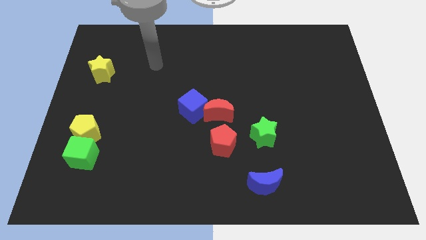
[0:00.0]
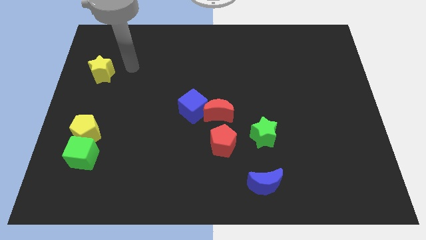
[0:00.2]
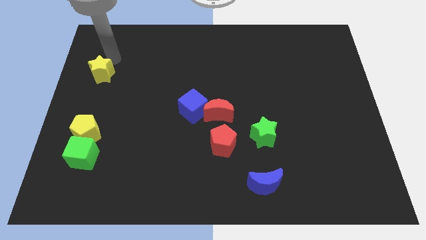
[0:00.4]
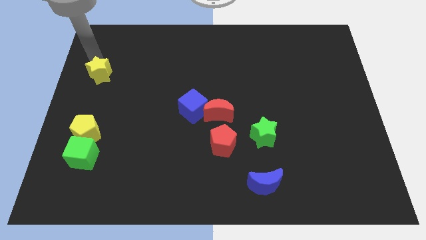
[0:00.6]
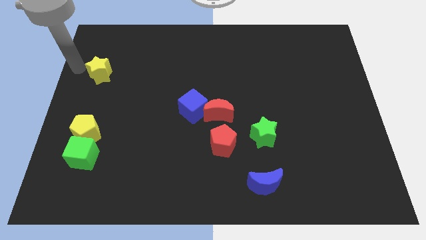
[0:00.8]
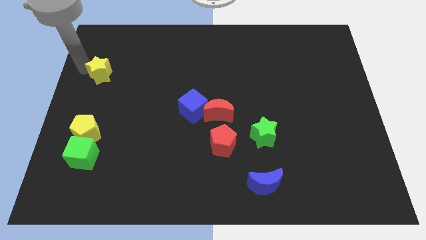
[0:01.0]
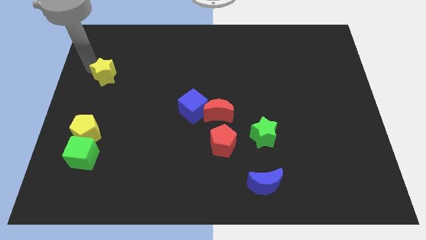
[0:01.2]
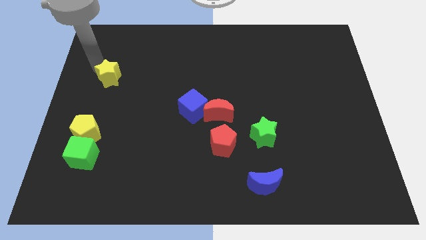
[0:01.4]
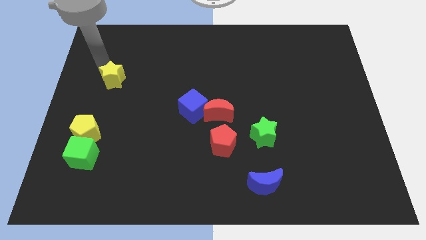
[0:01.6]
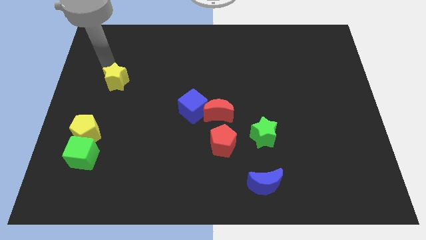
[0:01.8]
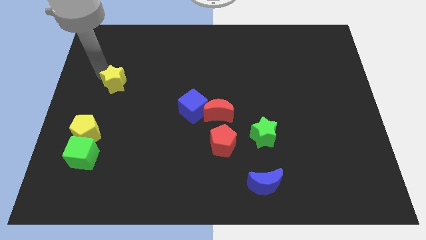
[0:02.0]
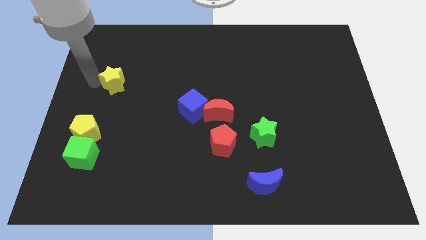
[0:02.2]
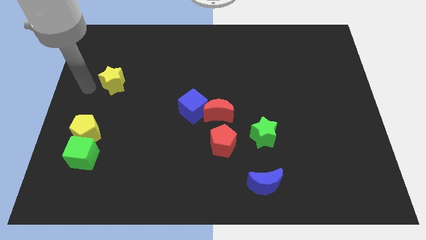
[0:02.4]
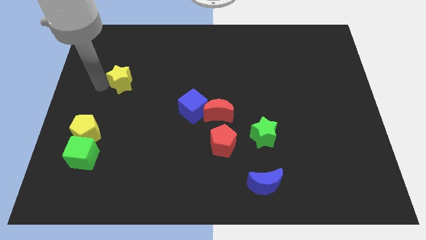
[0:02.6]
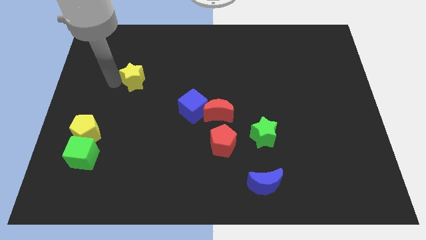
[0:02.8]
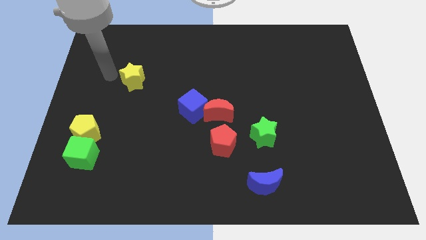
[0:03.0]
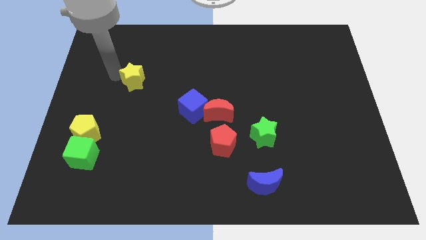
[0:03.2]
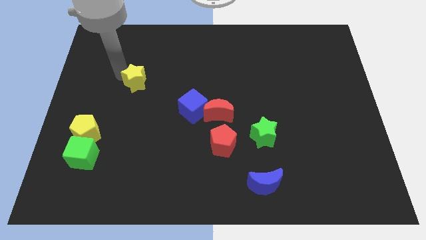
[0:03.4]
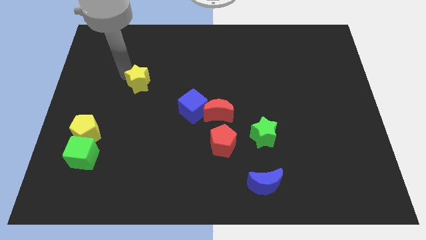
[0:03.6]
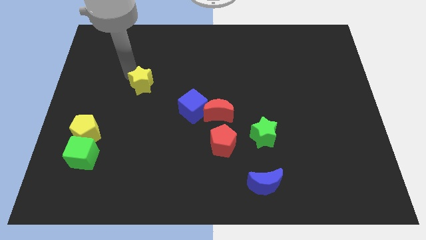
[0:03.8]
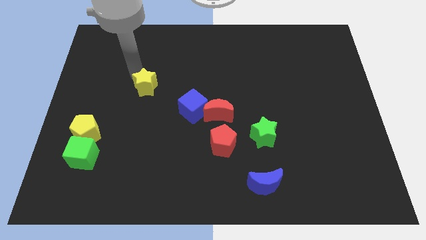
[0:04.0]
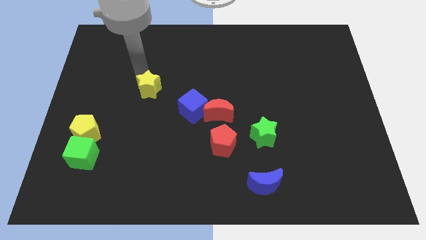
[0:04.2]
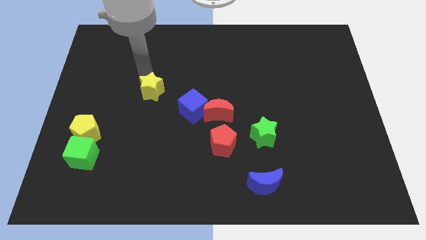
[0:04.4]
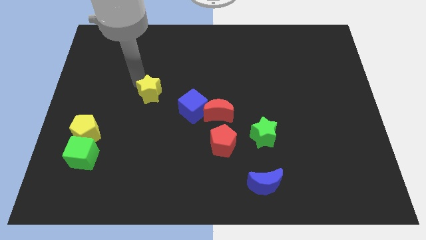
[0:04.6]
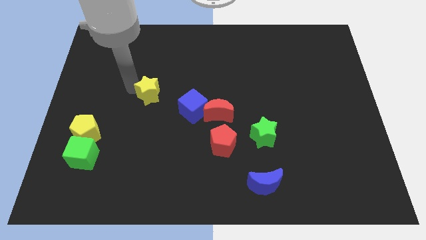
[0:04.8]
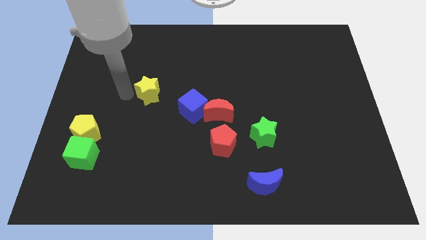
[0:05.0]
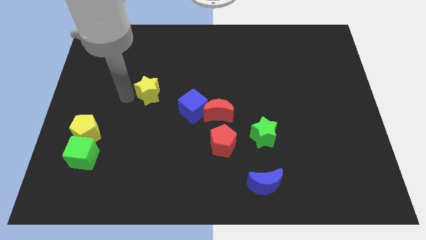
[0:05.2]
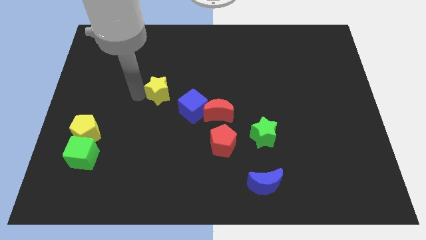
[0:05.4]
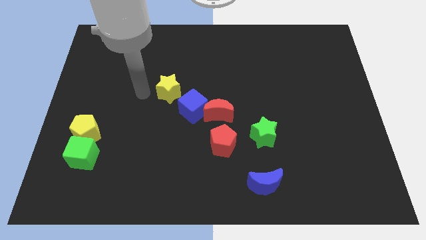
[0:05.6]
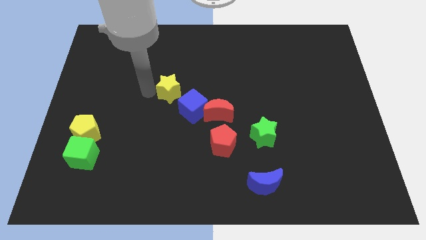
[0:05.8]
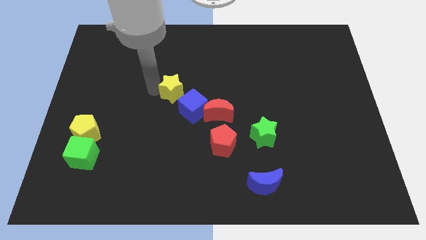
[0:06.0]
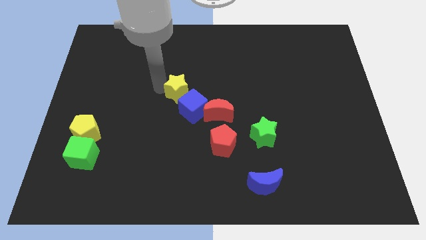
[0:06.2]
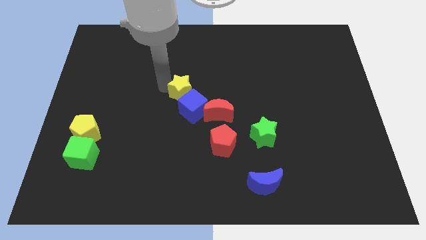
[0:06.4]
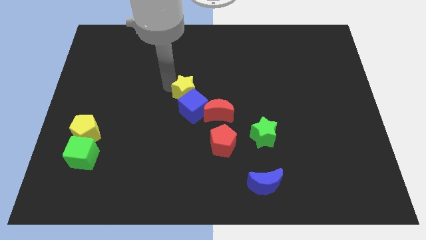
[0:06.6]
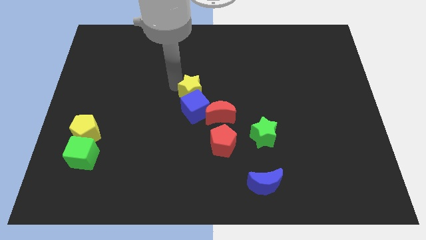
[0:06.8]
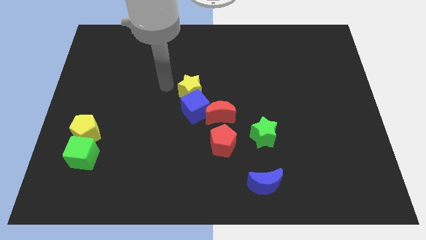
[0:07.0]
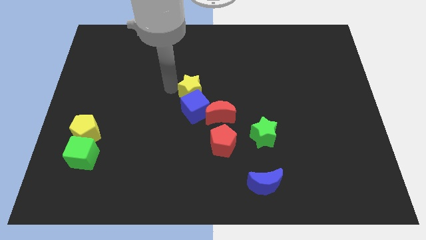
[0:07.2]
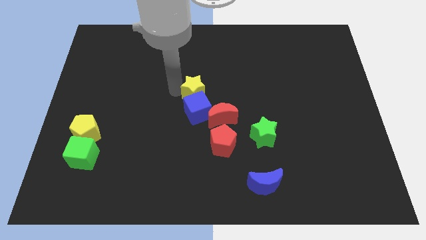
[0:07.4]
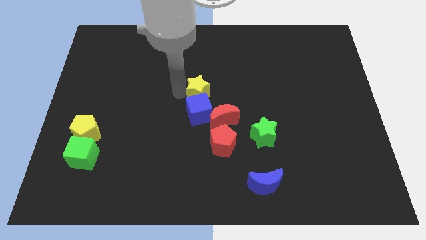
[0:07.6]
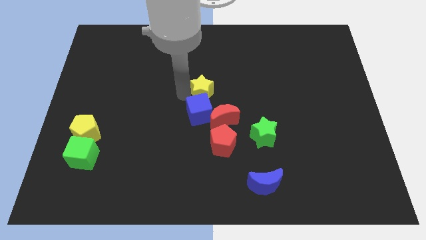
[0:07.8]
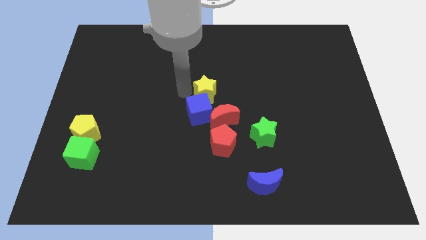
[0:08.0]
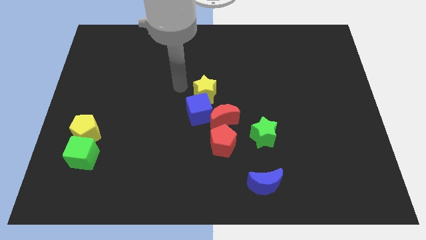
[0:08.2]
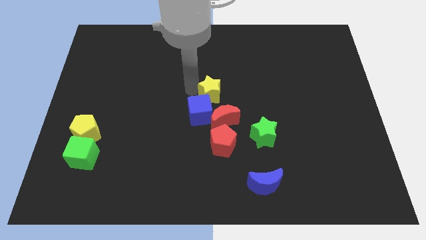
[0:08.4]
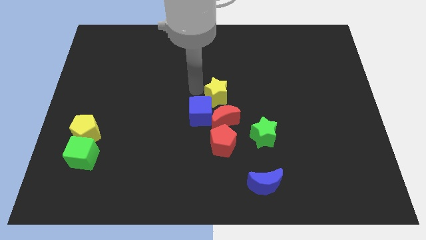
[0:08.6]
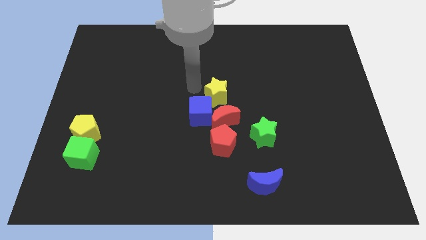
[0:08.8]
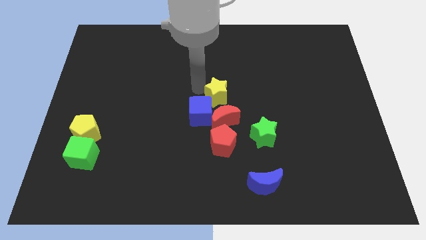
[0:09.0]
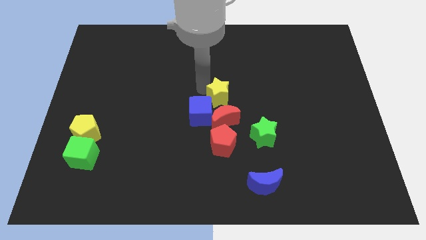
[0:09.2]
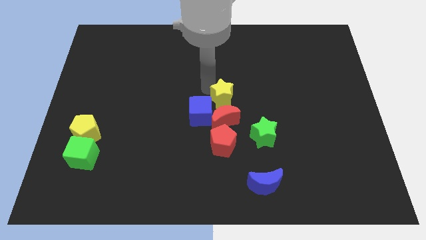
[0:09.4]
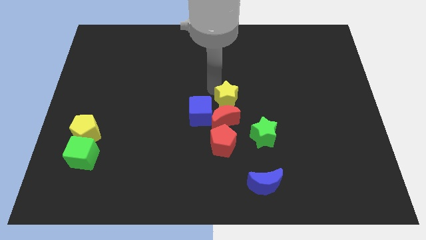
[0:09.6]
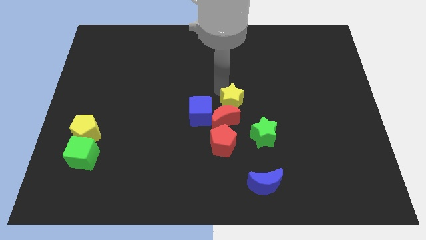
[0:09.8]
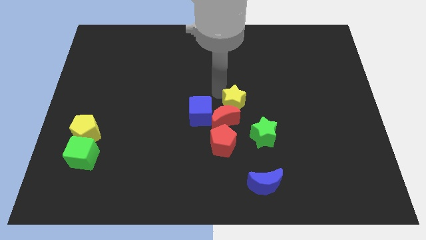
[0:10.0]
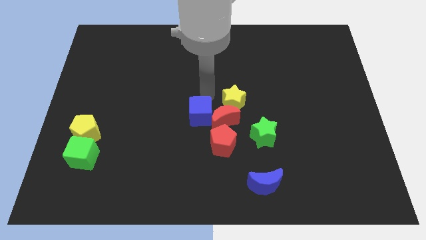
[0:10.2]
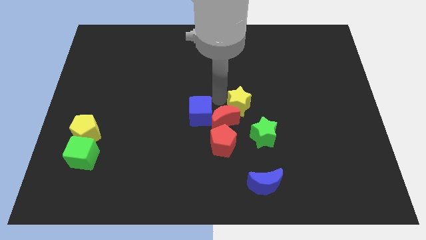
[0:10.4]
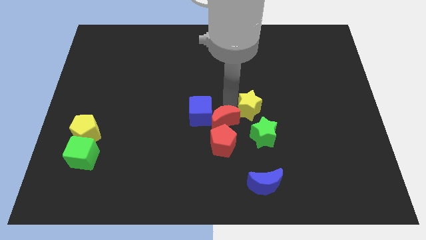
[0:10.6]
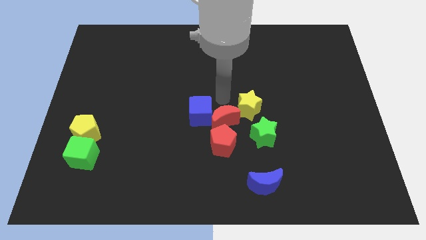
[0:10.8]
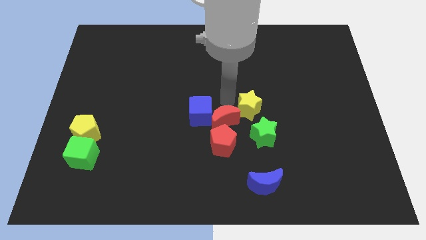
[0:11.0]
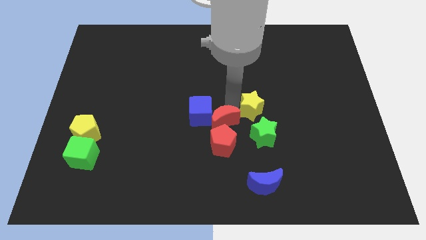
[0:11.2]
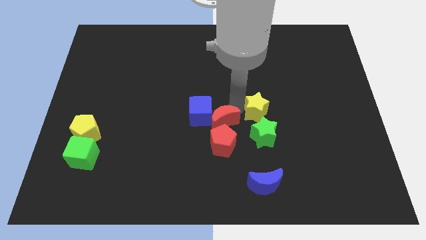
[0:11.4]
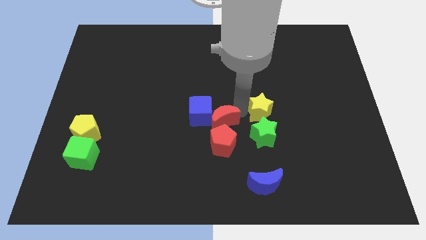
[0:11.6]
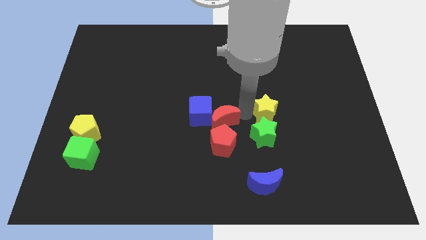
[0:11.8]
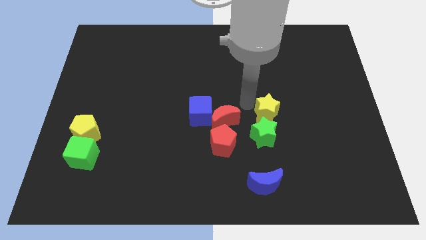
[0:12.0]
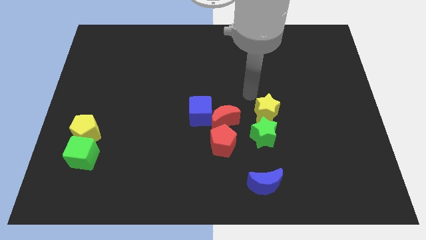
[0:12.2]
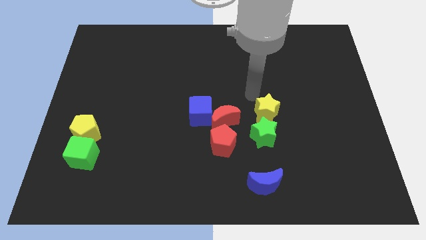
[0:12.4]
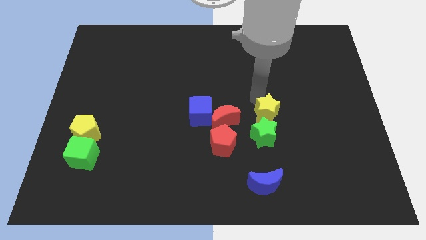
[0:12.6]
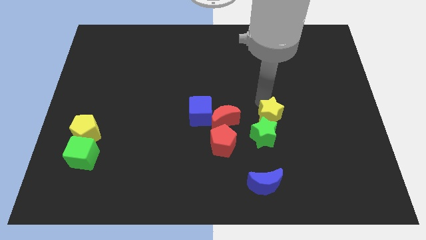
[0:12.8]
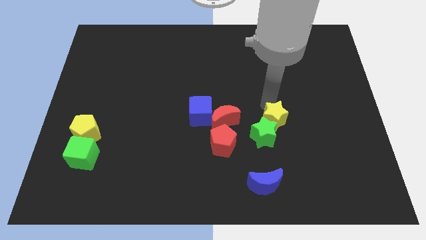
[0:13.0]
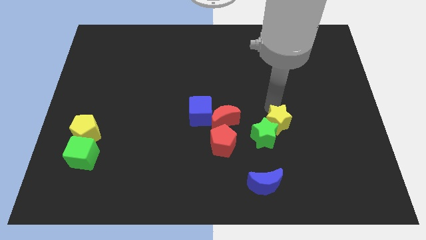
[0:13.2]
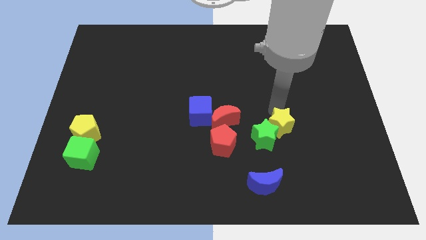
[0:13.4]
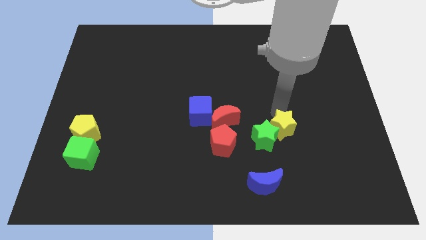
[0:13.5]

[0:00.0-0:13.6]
put the yellow star to the right of the red pentagon
